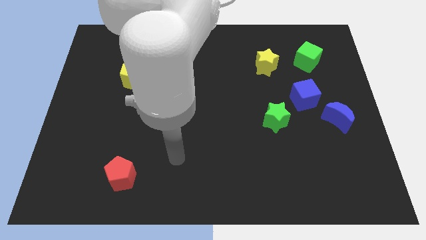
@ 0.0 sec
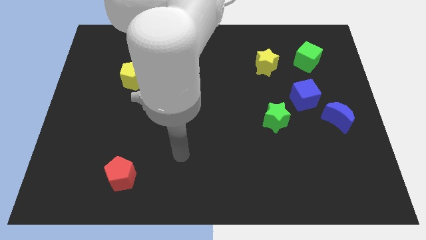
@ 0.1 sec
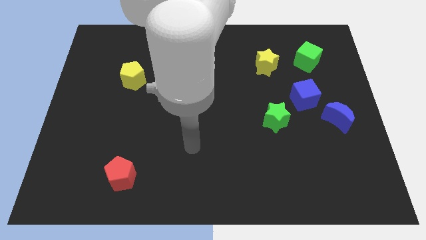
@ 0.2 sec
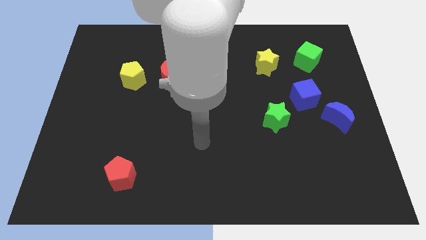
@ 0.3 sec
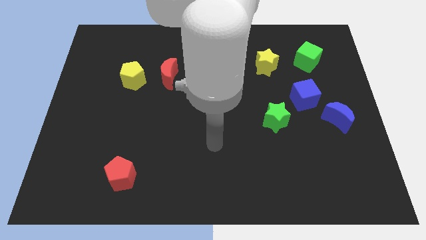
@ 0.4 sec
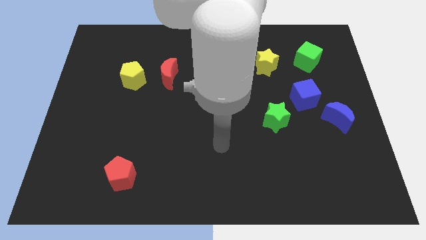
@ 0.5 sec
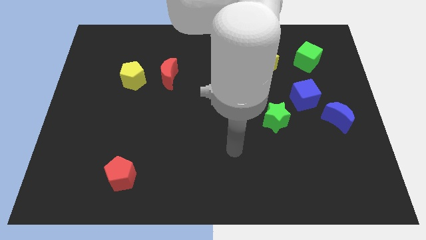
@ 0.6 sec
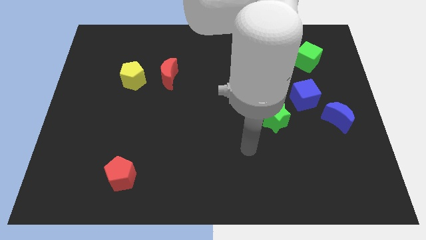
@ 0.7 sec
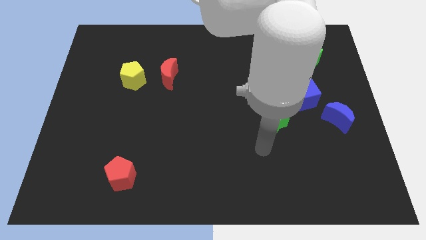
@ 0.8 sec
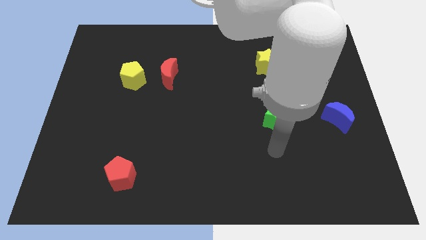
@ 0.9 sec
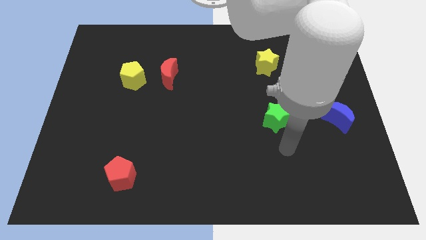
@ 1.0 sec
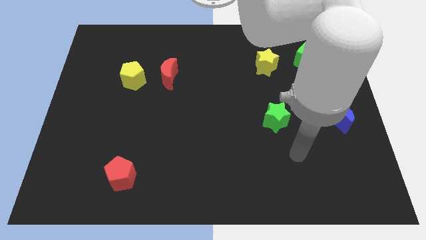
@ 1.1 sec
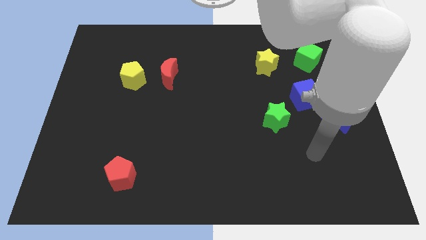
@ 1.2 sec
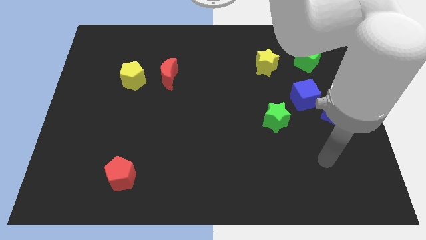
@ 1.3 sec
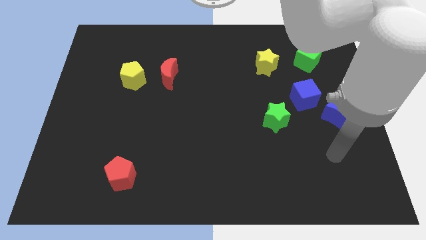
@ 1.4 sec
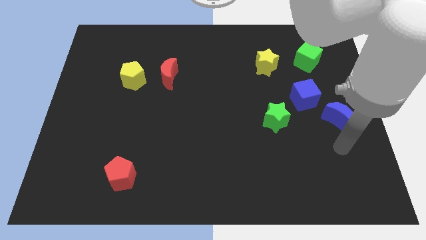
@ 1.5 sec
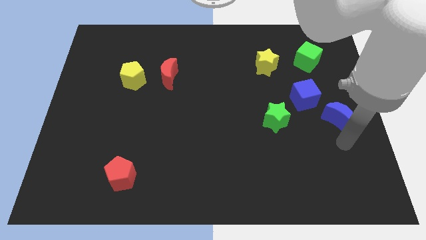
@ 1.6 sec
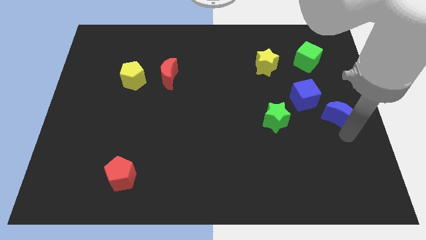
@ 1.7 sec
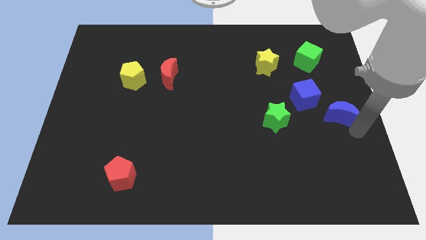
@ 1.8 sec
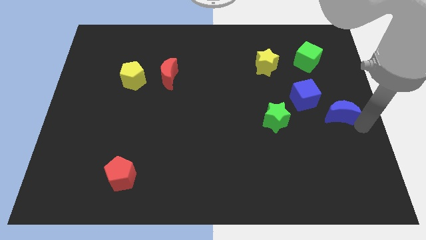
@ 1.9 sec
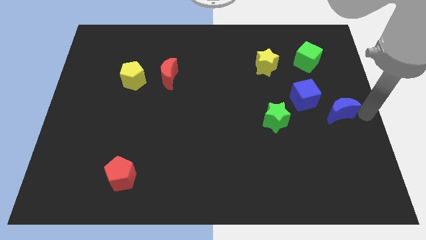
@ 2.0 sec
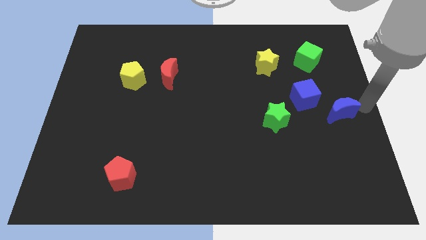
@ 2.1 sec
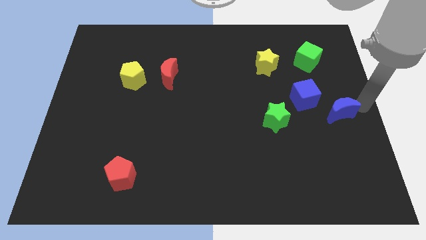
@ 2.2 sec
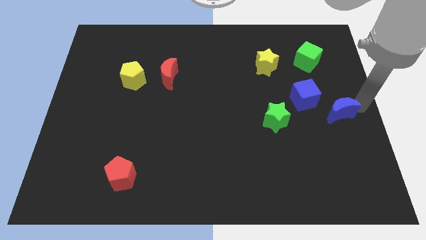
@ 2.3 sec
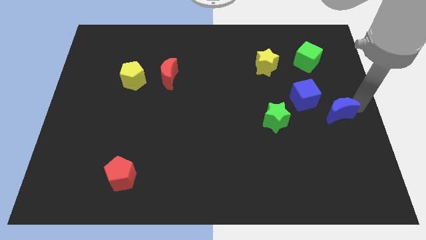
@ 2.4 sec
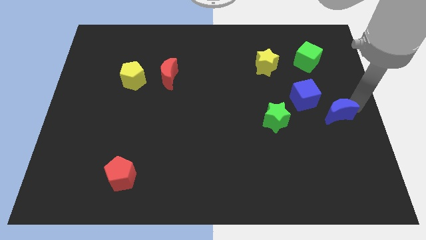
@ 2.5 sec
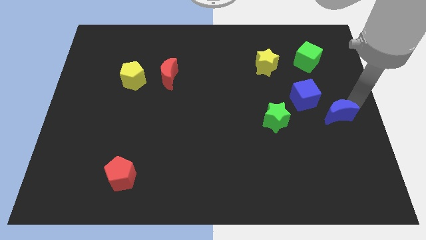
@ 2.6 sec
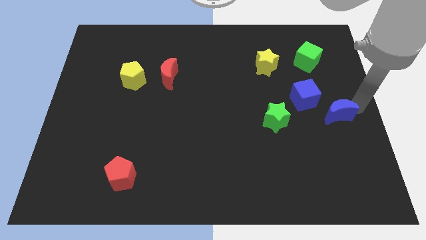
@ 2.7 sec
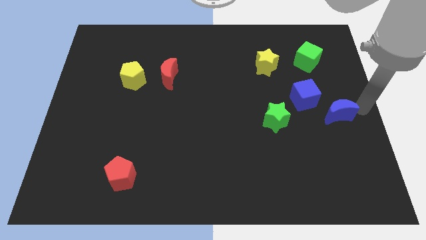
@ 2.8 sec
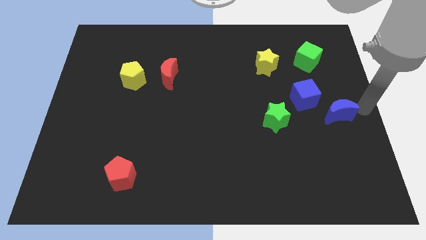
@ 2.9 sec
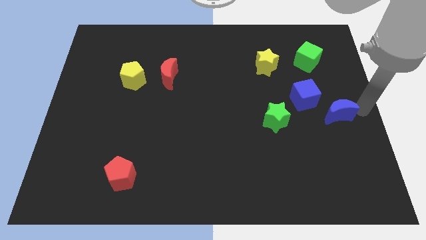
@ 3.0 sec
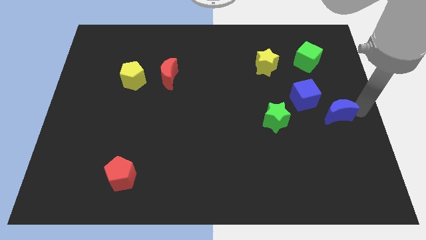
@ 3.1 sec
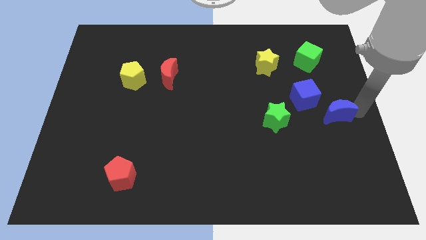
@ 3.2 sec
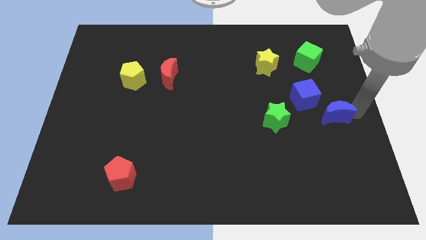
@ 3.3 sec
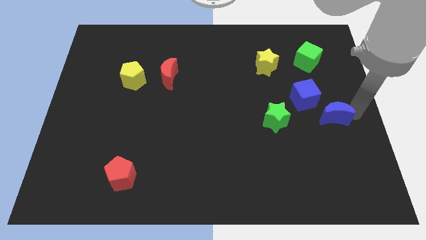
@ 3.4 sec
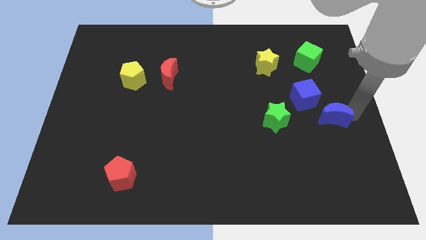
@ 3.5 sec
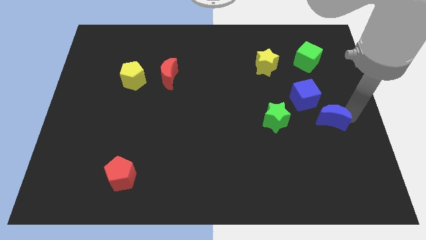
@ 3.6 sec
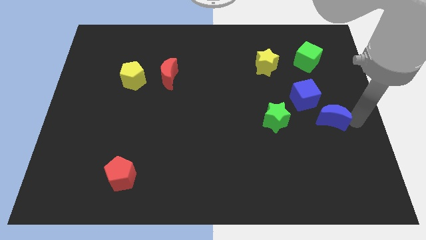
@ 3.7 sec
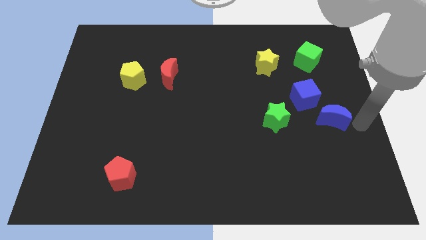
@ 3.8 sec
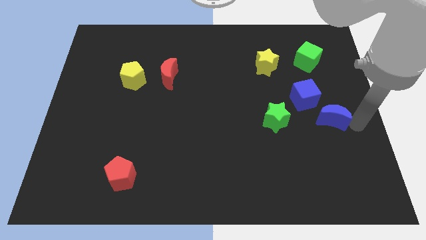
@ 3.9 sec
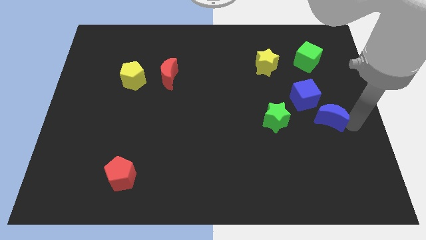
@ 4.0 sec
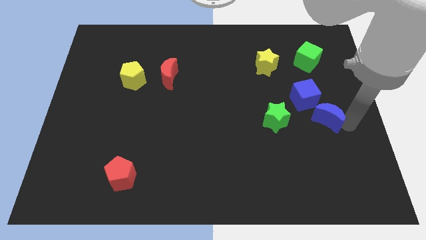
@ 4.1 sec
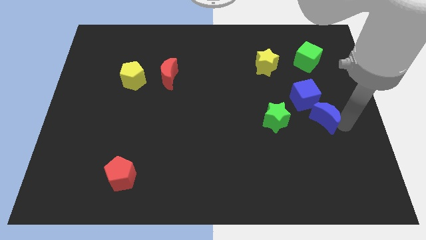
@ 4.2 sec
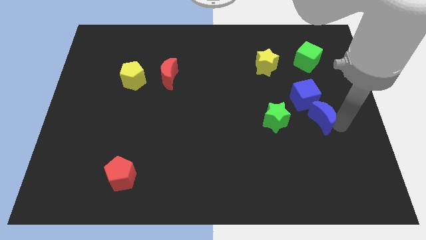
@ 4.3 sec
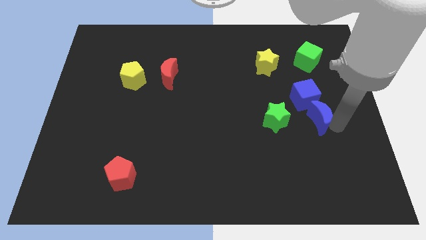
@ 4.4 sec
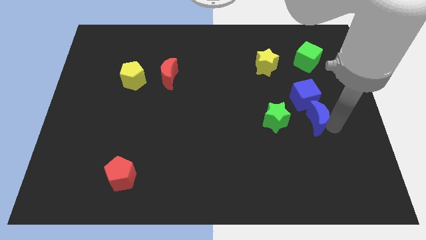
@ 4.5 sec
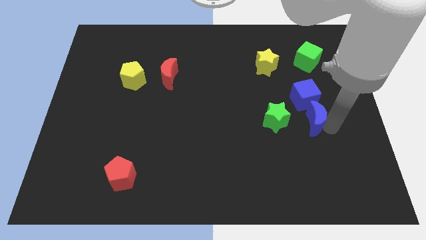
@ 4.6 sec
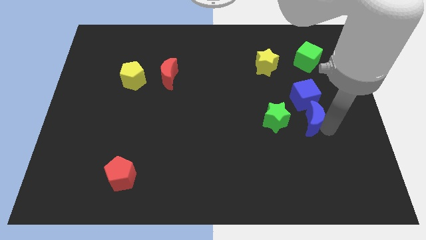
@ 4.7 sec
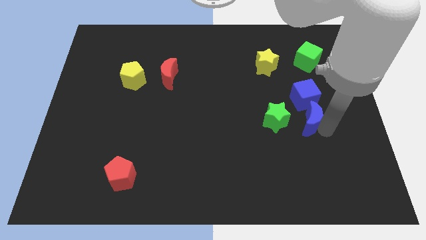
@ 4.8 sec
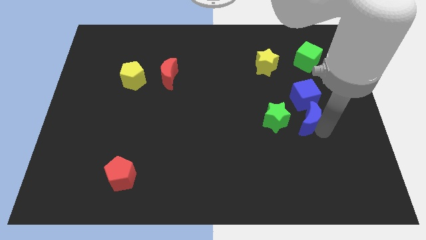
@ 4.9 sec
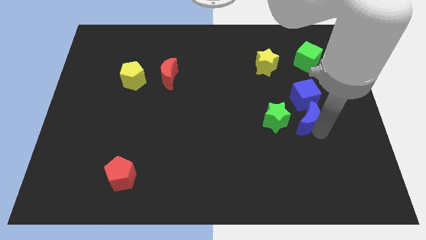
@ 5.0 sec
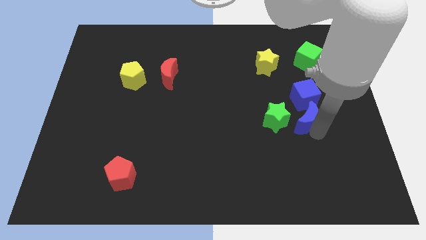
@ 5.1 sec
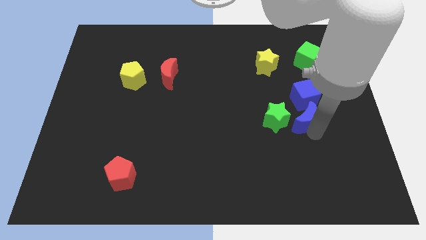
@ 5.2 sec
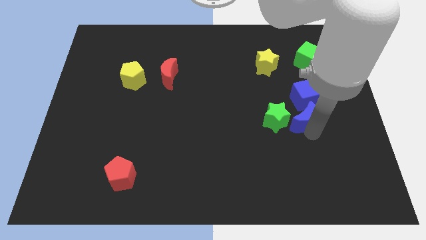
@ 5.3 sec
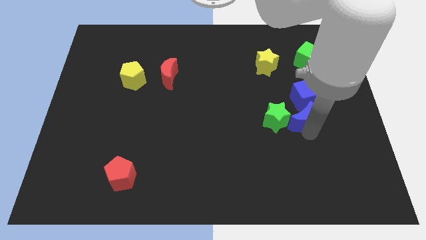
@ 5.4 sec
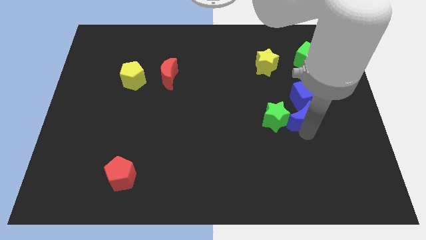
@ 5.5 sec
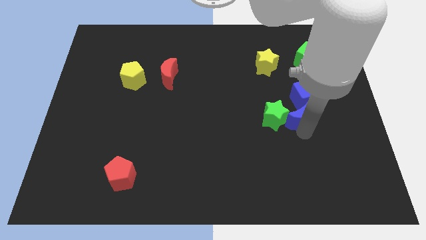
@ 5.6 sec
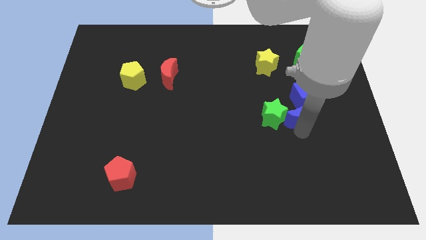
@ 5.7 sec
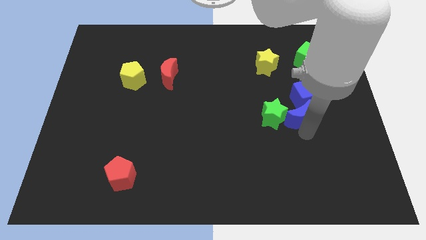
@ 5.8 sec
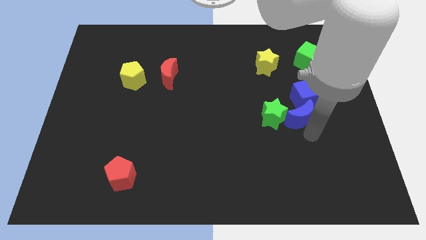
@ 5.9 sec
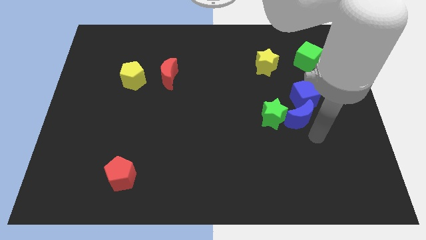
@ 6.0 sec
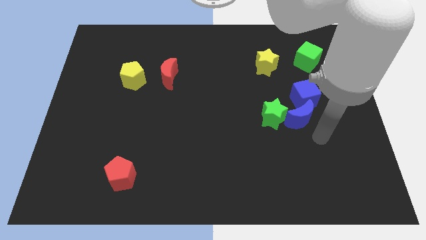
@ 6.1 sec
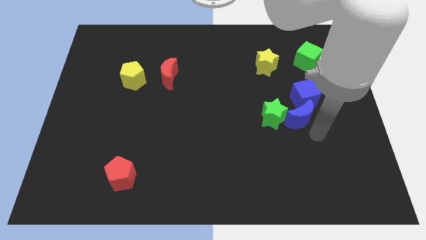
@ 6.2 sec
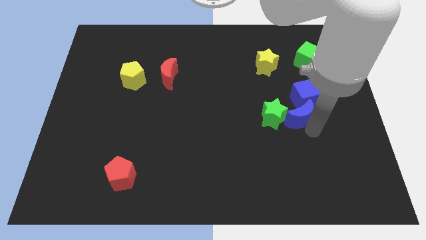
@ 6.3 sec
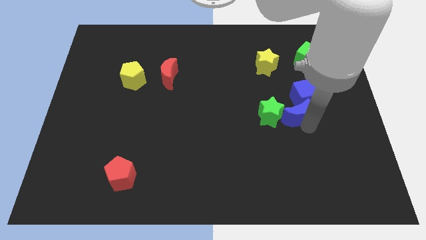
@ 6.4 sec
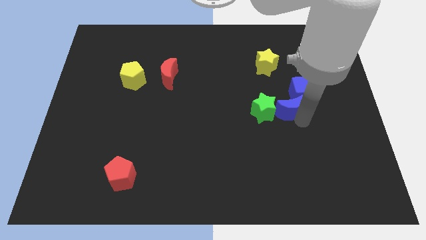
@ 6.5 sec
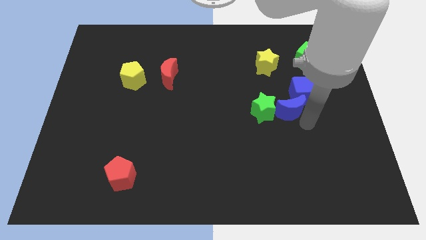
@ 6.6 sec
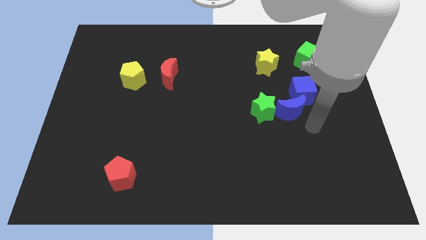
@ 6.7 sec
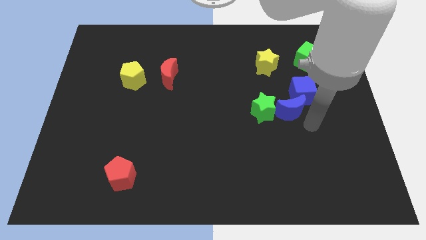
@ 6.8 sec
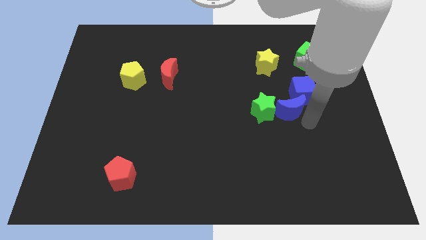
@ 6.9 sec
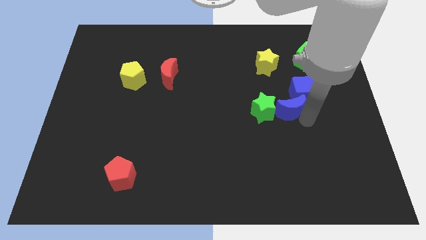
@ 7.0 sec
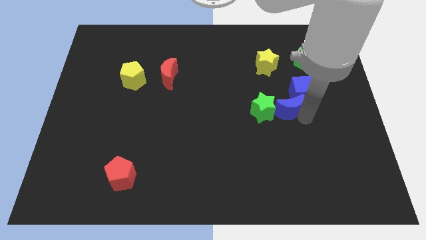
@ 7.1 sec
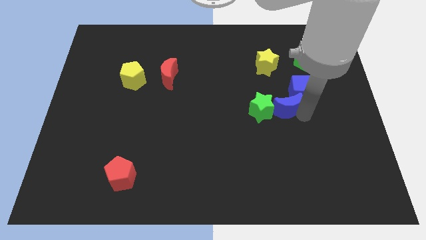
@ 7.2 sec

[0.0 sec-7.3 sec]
slide the blue moon below the yellow star

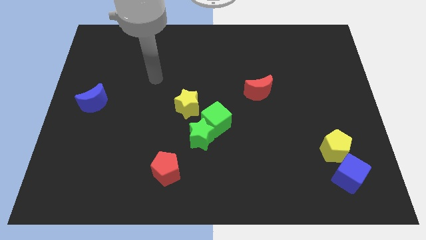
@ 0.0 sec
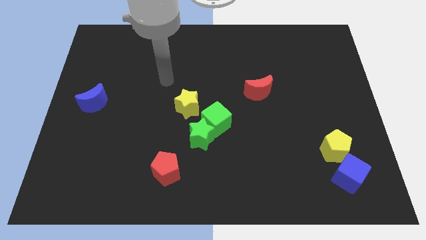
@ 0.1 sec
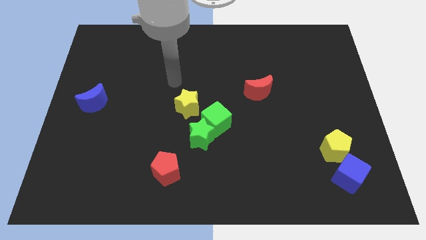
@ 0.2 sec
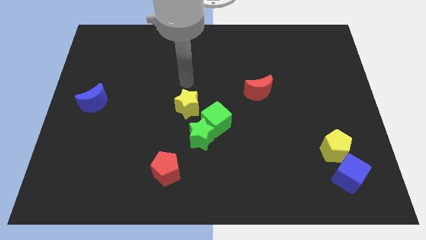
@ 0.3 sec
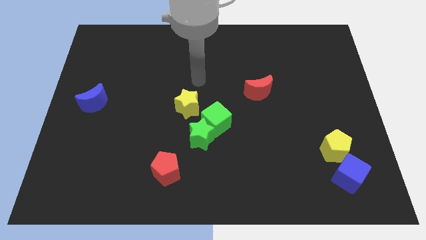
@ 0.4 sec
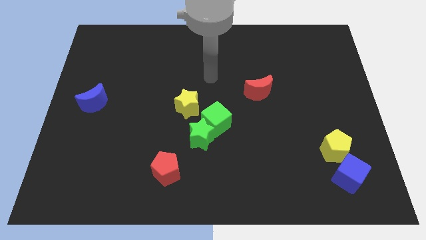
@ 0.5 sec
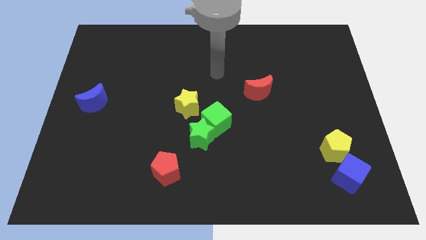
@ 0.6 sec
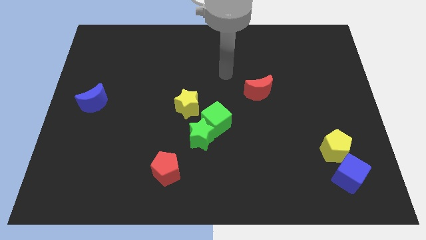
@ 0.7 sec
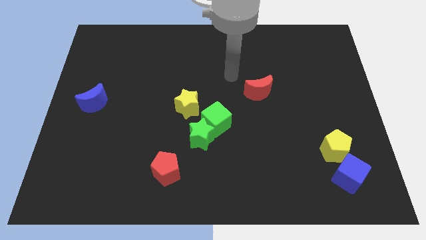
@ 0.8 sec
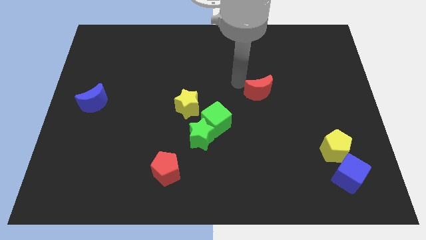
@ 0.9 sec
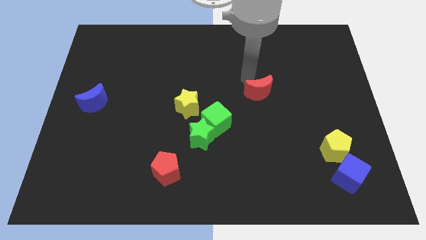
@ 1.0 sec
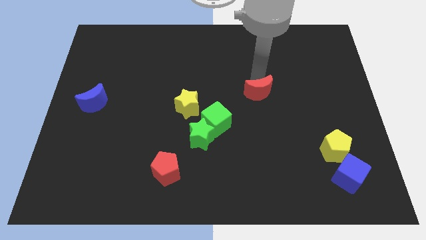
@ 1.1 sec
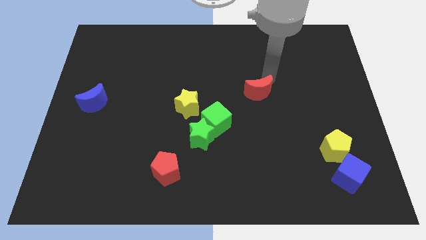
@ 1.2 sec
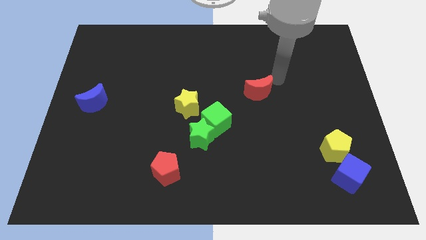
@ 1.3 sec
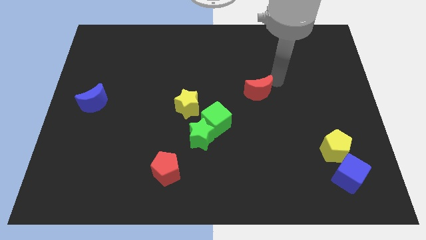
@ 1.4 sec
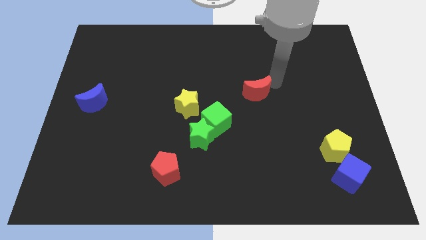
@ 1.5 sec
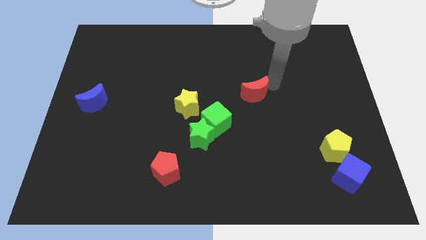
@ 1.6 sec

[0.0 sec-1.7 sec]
put the red moon to the top right of the green cube
